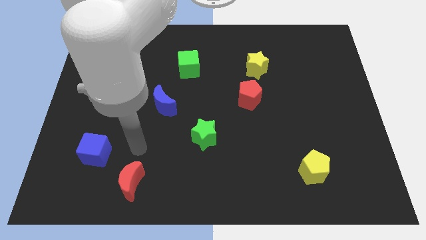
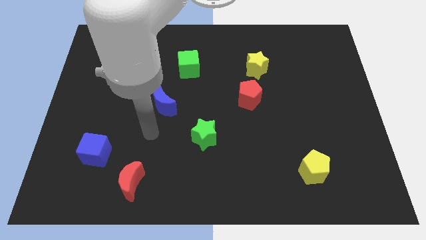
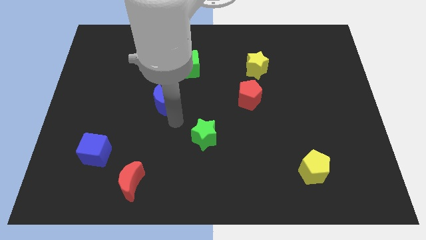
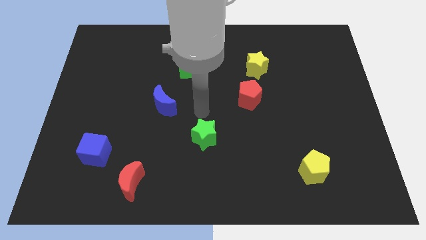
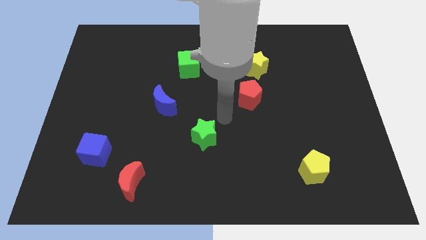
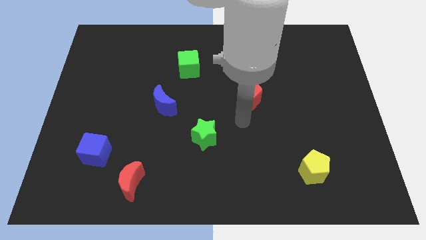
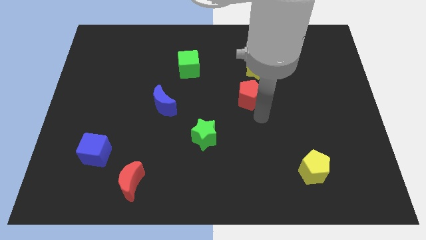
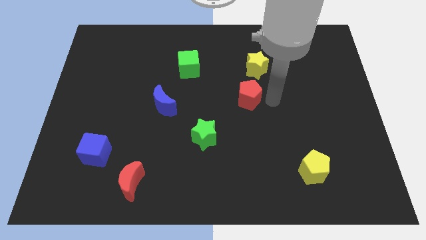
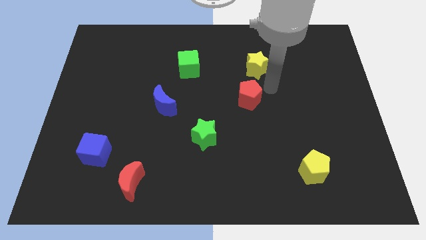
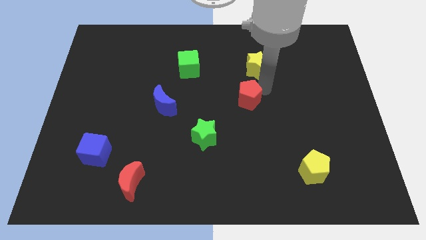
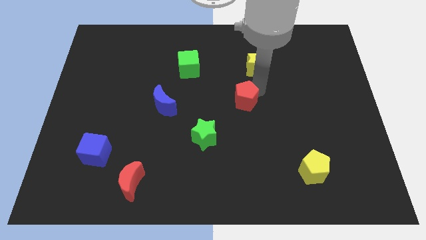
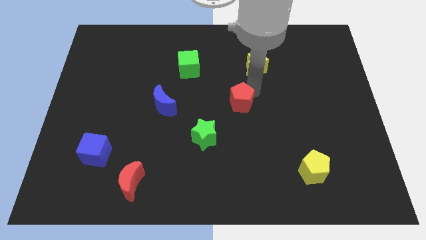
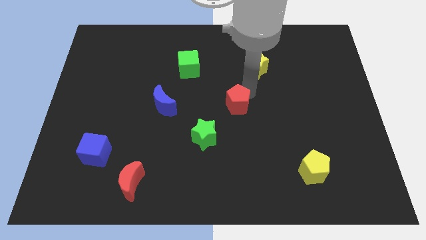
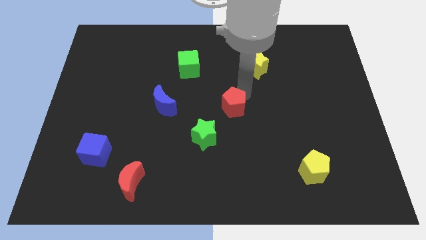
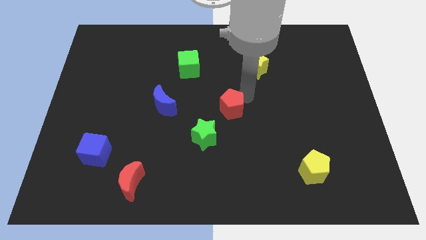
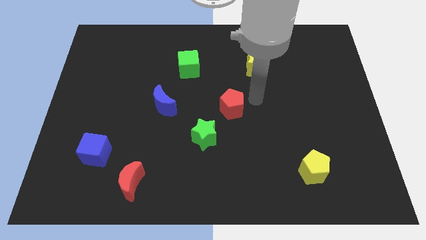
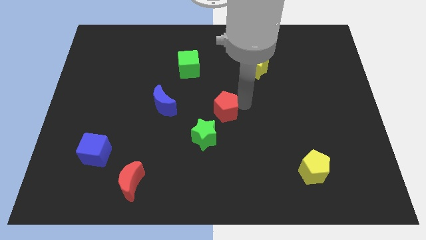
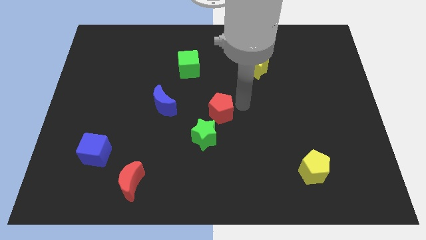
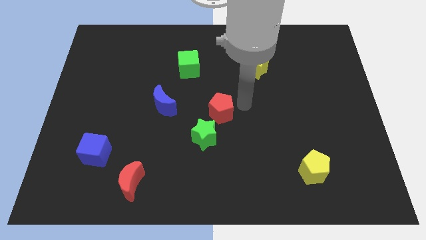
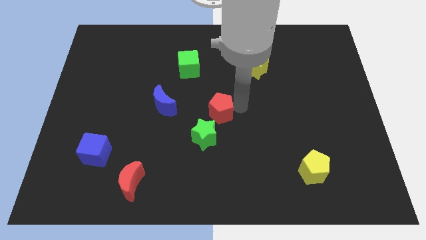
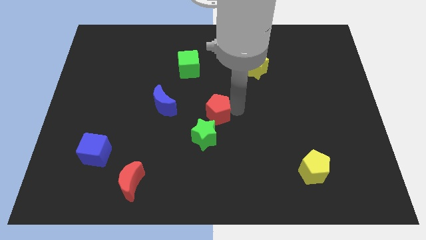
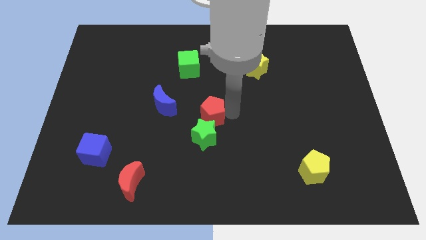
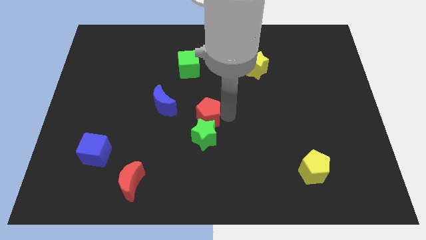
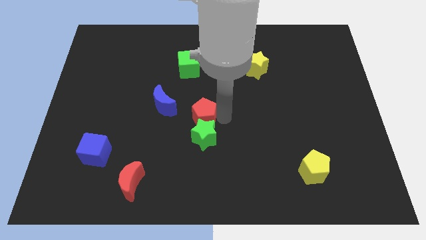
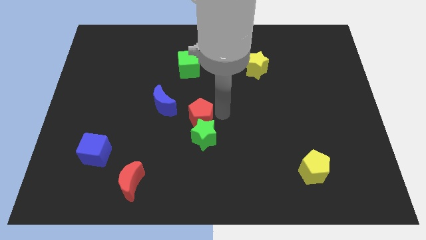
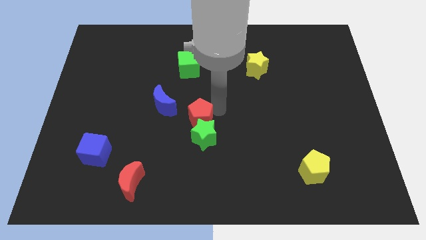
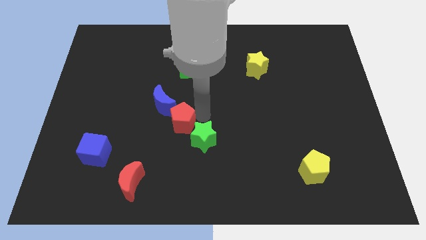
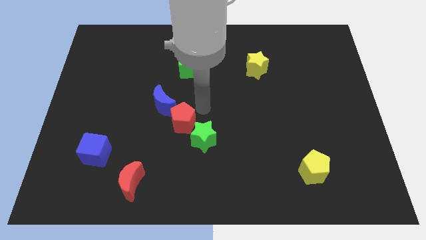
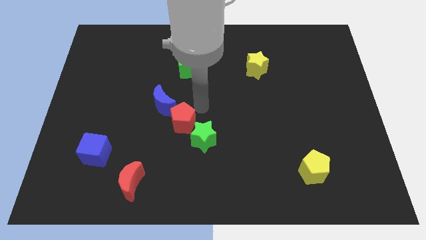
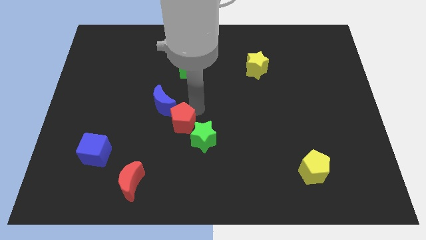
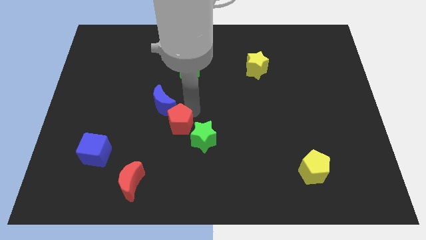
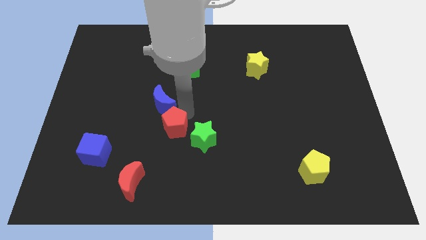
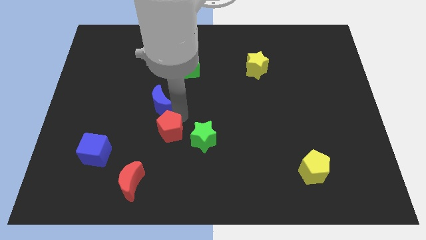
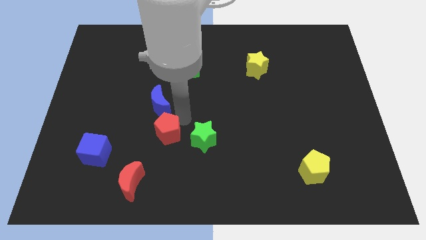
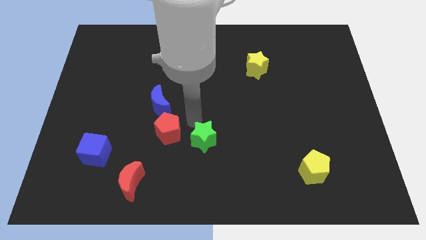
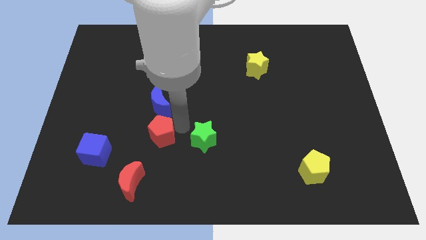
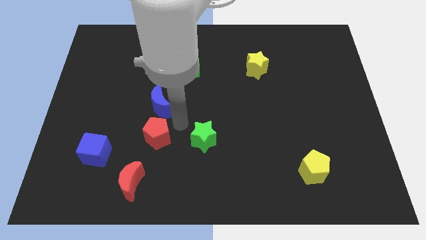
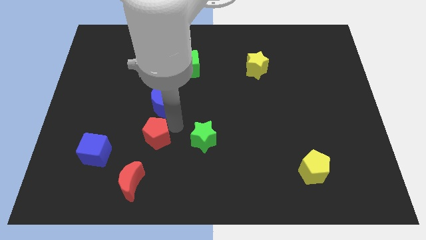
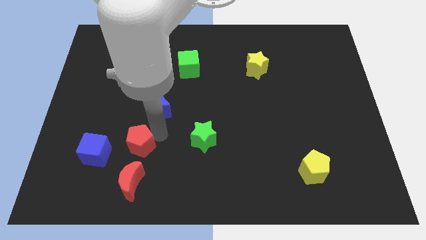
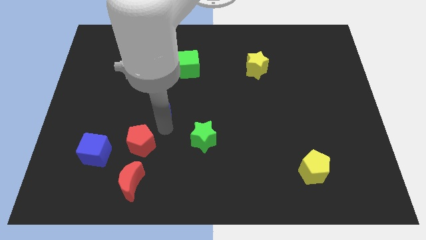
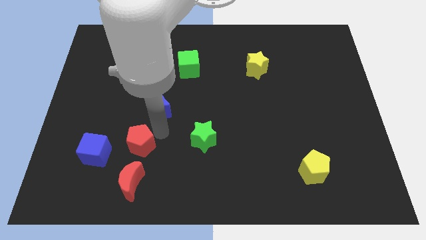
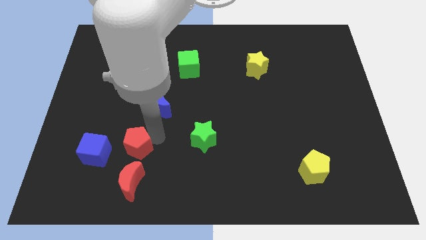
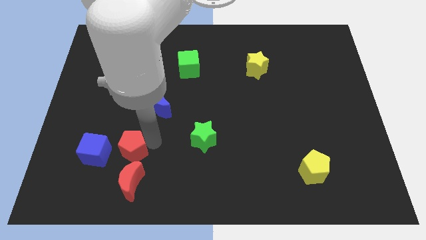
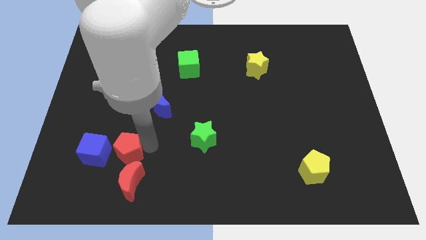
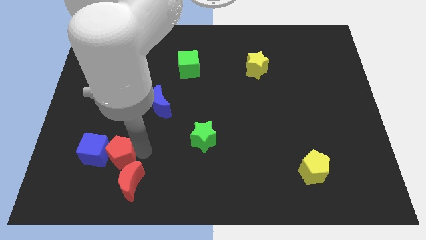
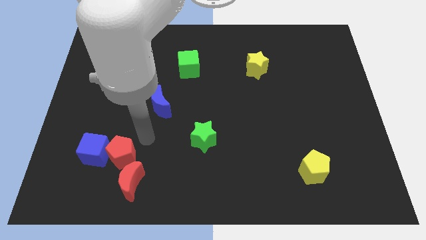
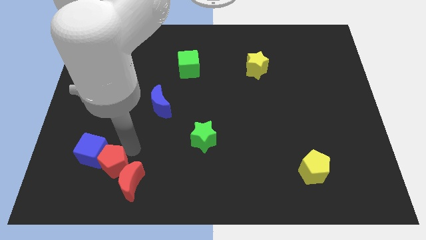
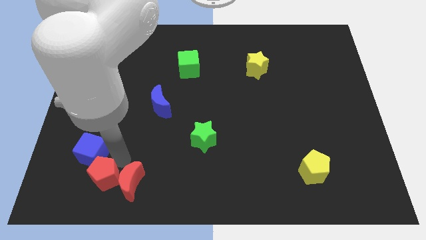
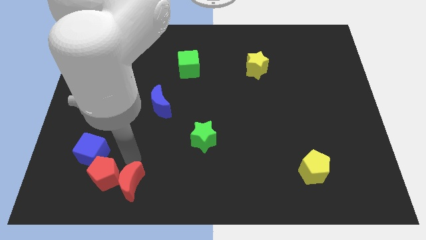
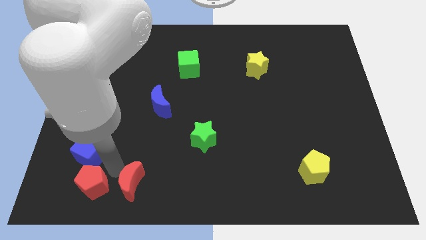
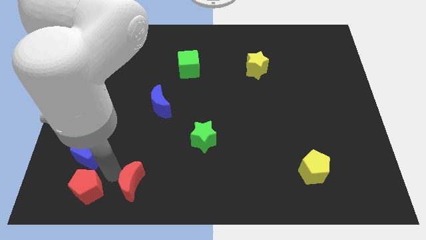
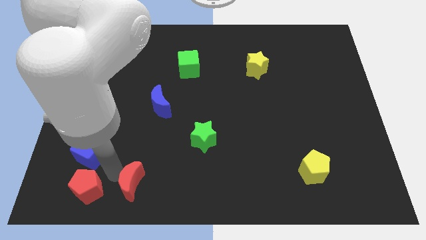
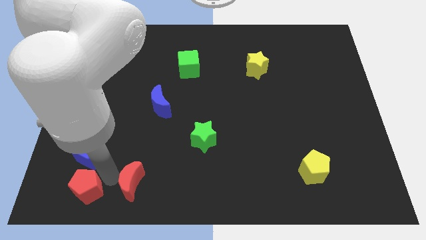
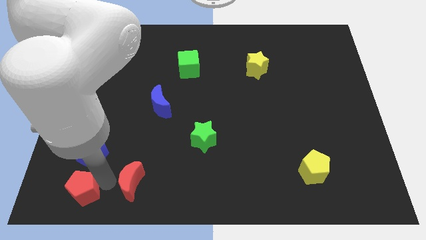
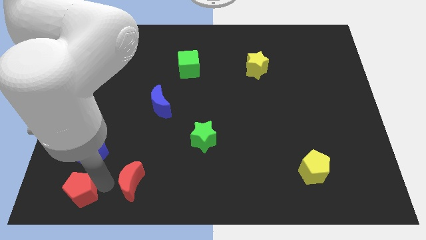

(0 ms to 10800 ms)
slide the red pentagon to the bottom left

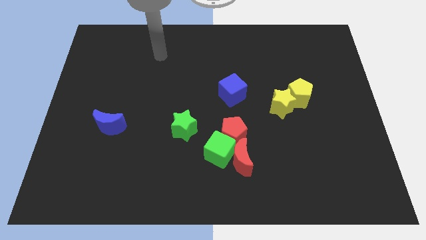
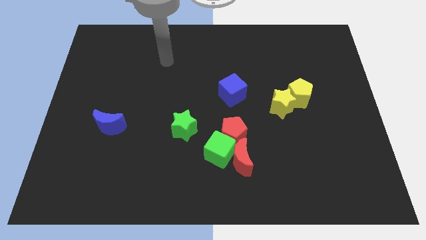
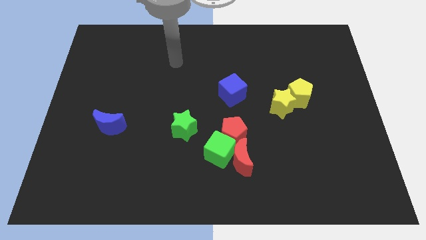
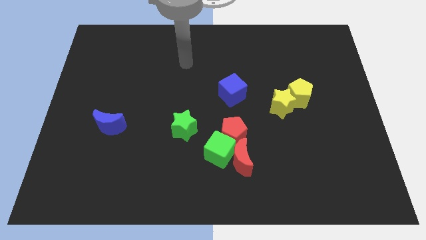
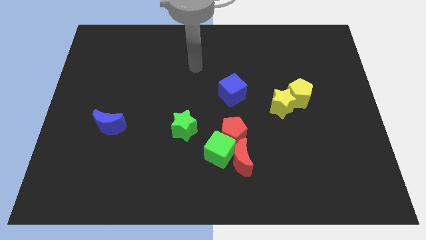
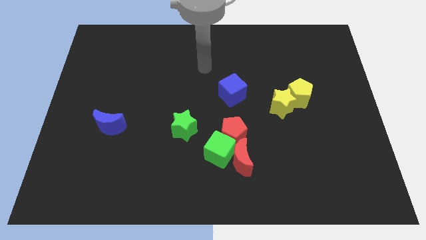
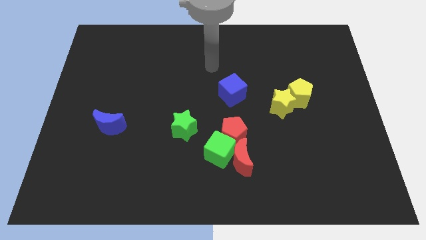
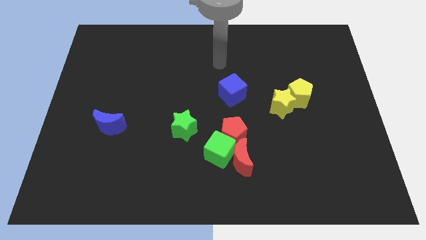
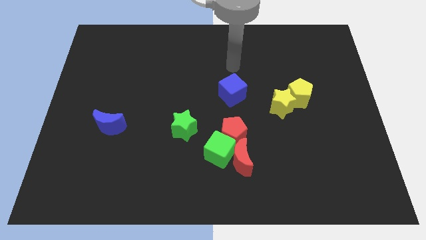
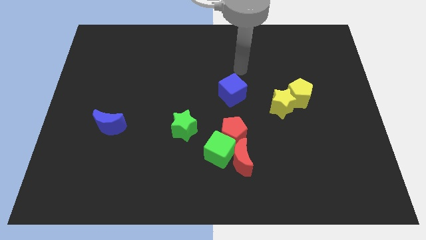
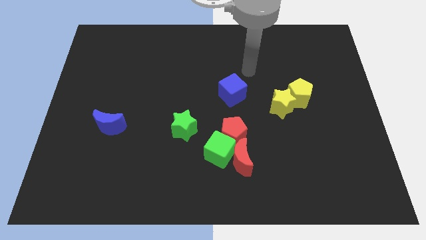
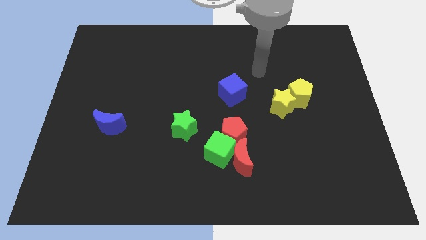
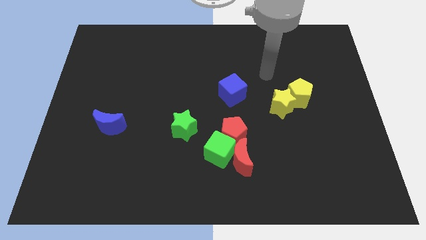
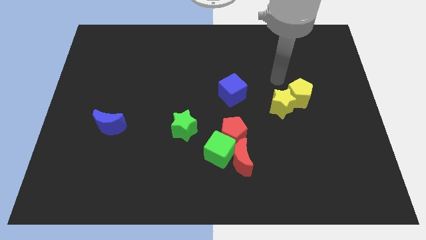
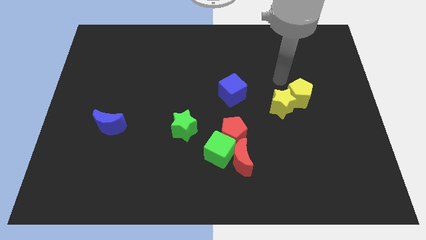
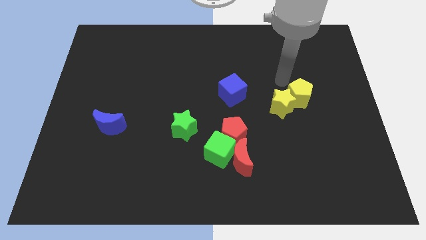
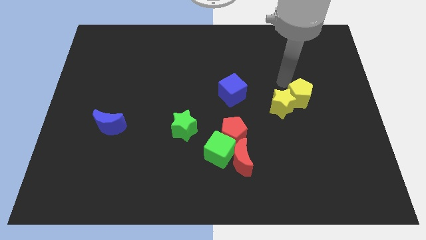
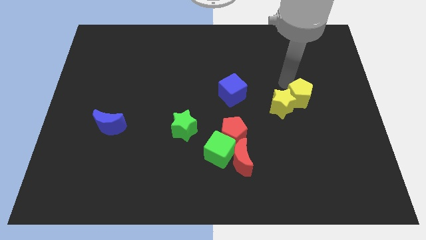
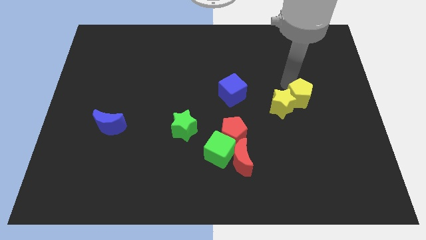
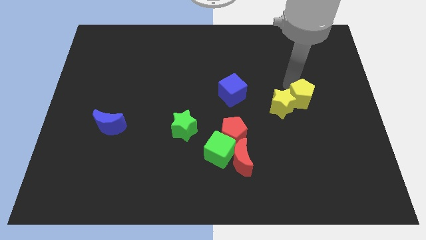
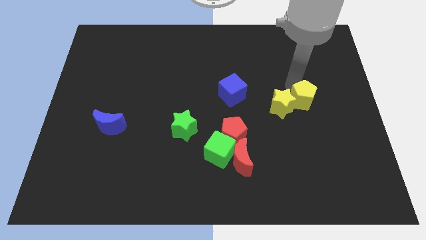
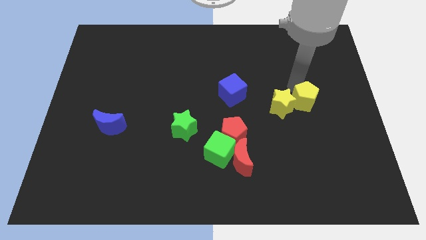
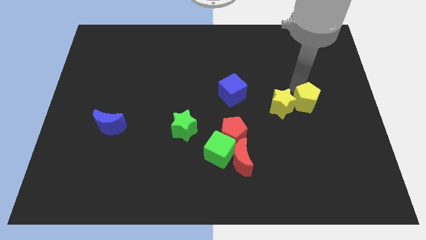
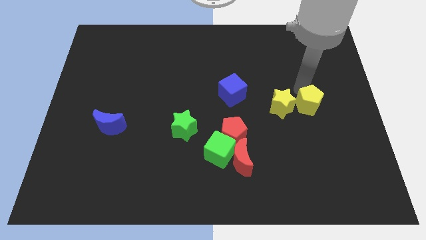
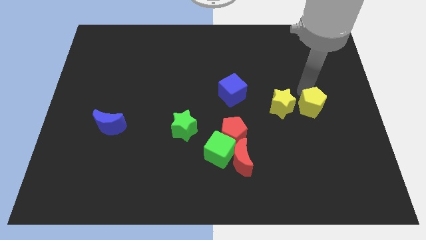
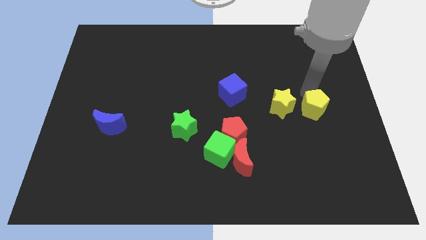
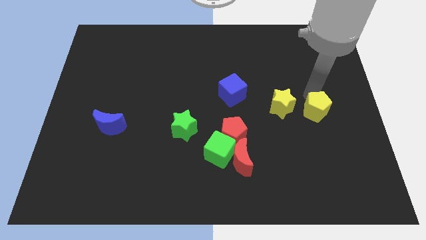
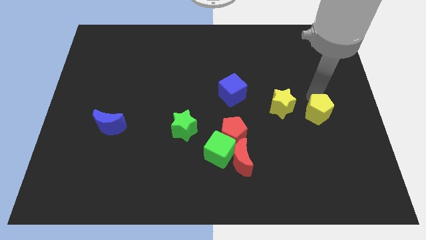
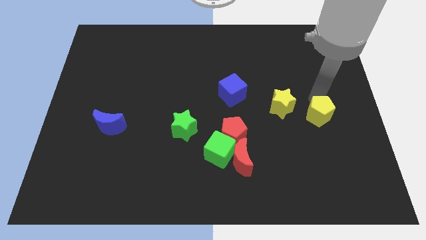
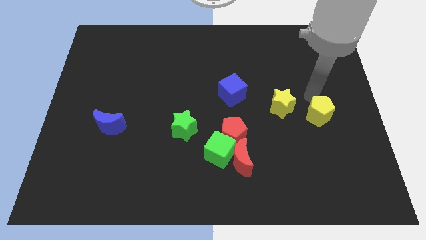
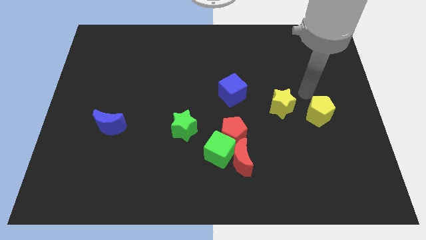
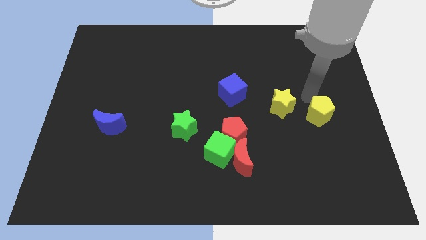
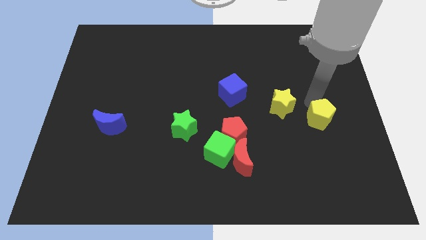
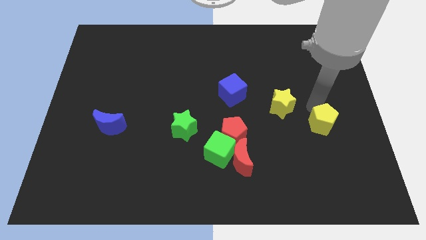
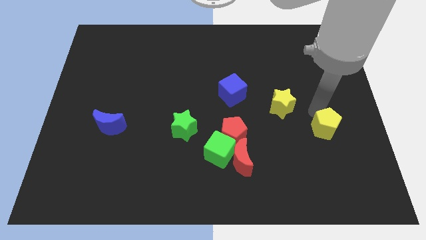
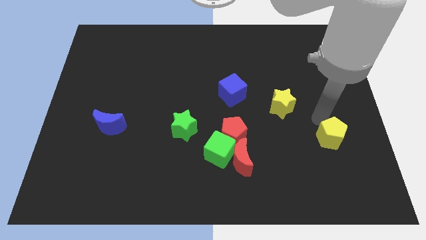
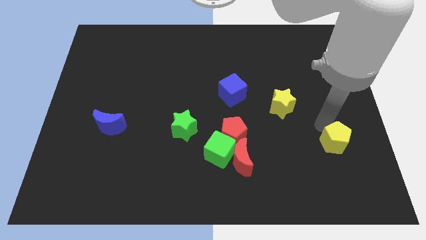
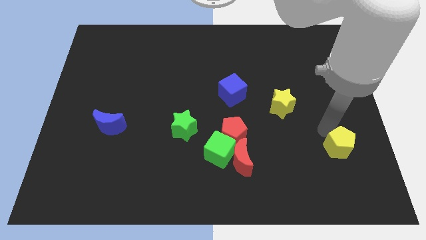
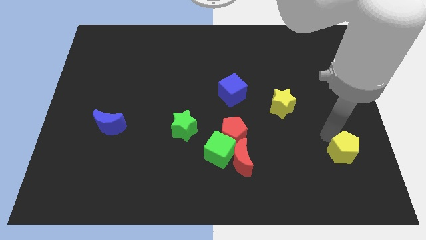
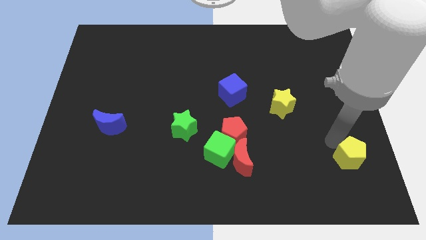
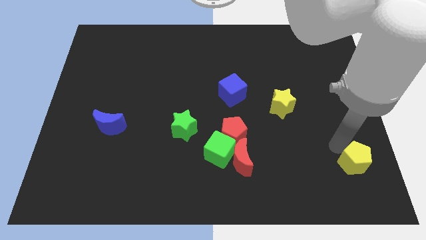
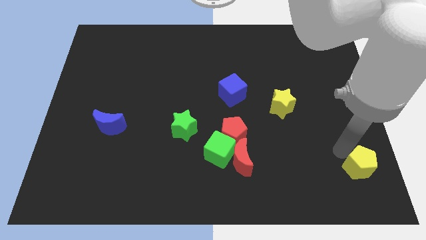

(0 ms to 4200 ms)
push the yellow pentagon to the bottom right of the board
